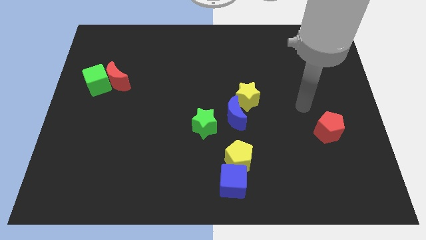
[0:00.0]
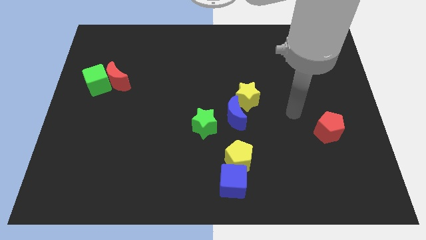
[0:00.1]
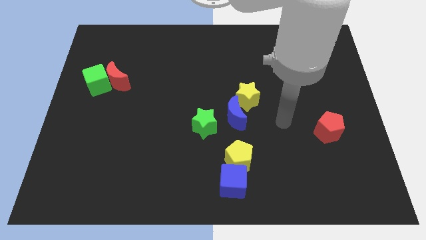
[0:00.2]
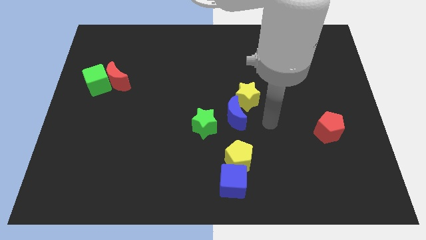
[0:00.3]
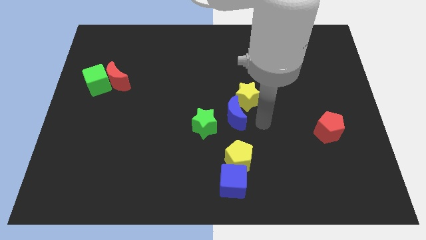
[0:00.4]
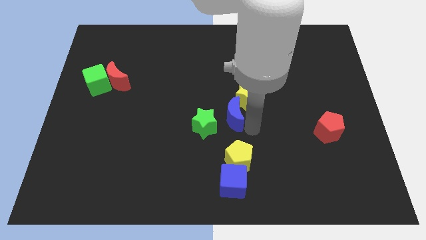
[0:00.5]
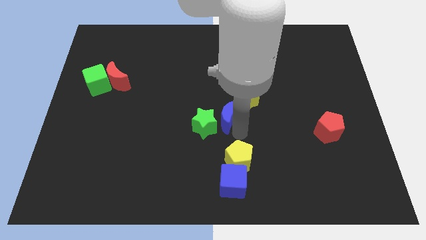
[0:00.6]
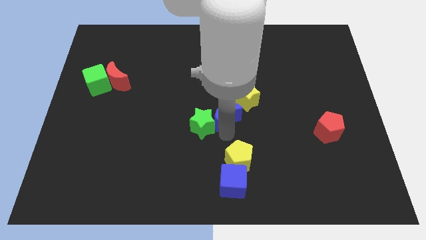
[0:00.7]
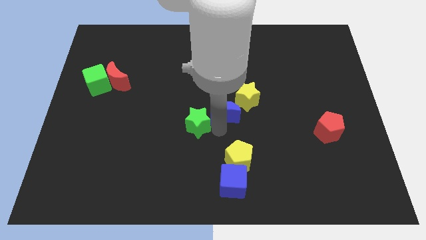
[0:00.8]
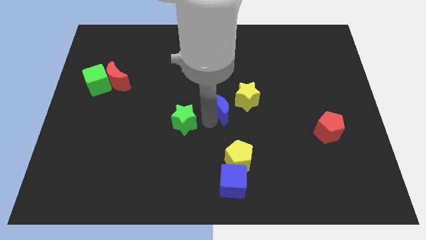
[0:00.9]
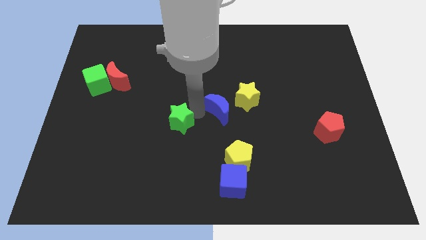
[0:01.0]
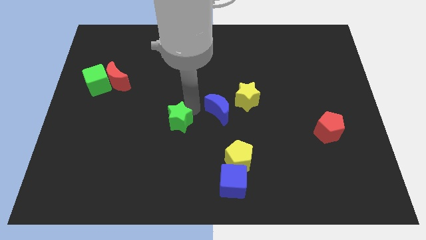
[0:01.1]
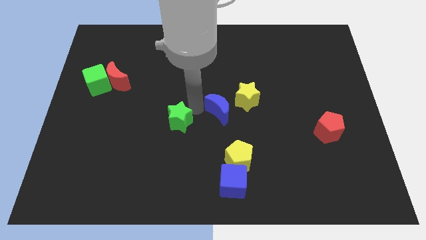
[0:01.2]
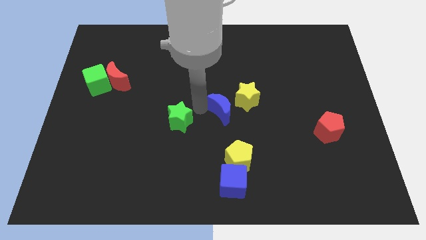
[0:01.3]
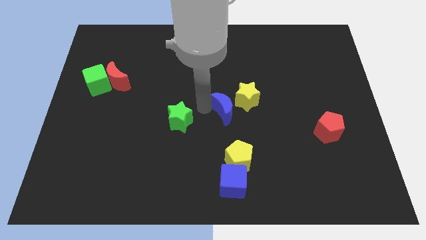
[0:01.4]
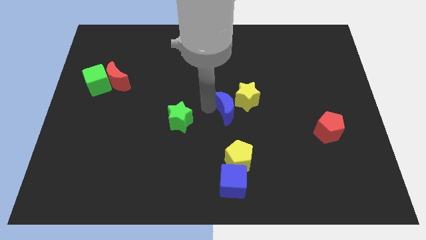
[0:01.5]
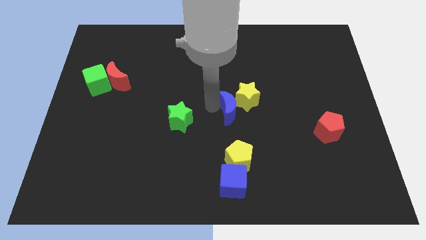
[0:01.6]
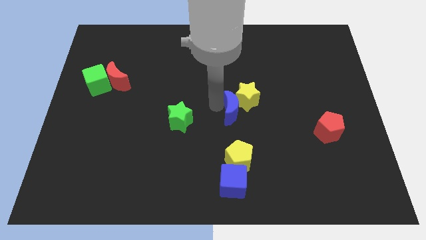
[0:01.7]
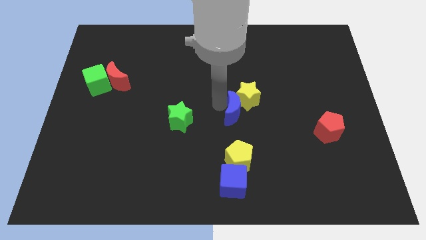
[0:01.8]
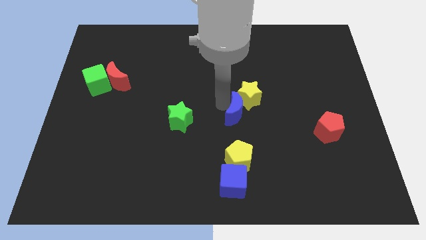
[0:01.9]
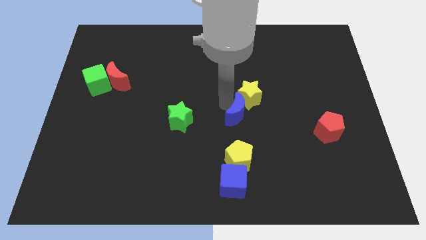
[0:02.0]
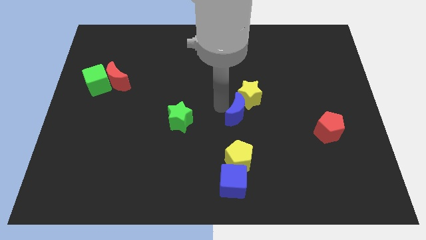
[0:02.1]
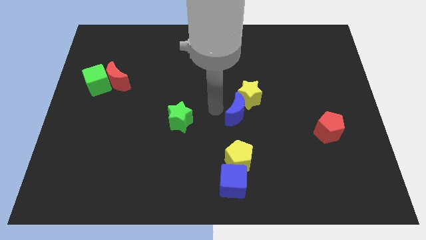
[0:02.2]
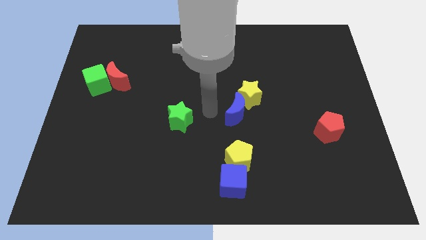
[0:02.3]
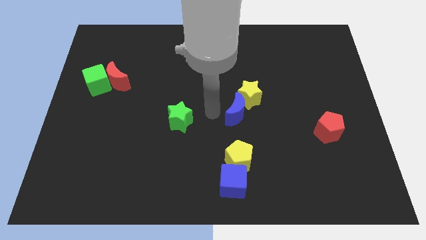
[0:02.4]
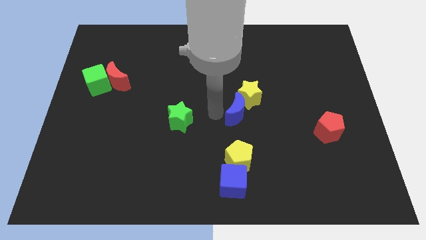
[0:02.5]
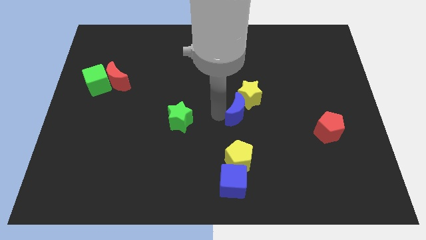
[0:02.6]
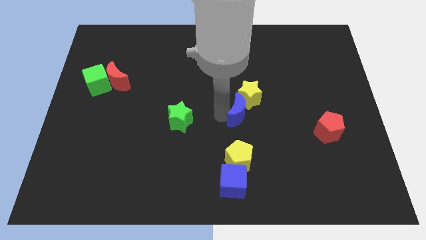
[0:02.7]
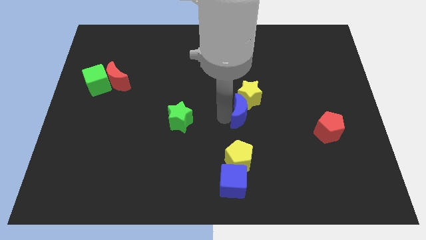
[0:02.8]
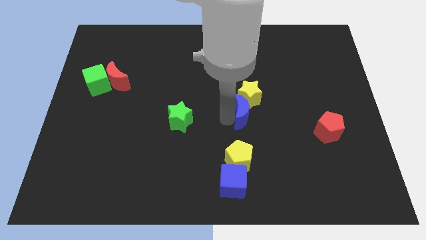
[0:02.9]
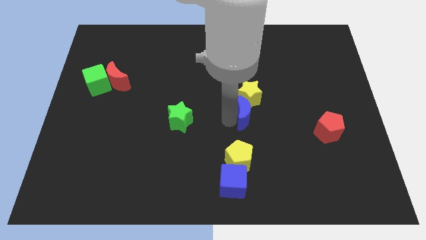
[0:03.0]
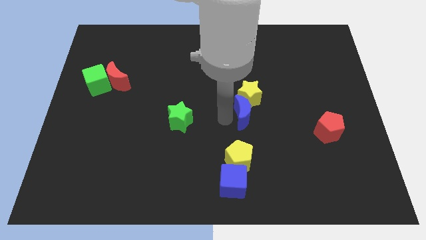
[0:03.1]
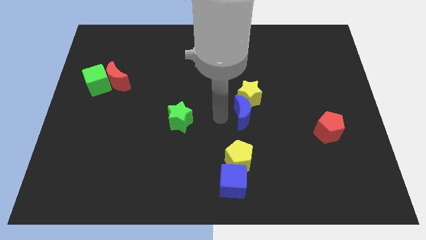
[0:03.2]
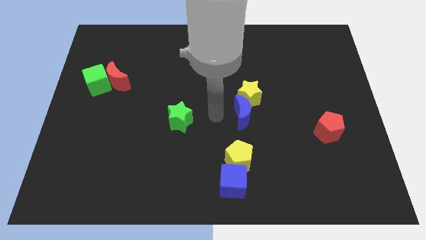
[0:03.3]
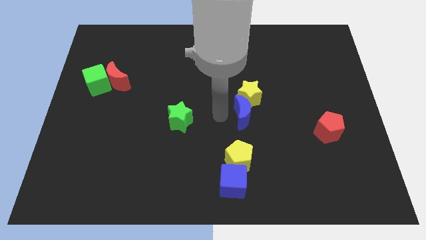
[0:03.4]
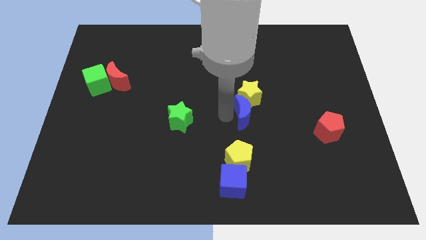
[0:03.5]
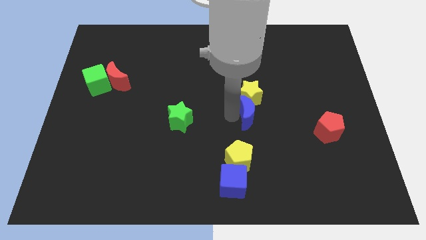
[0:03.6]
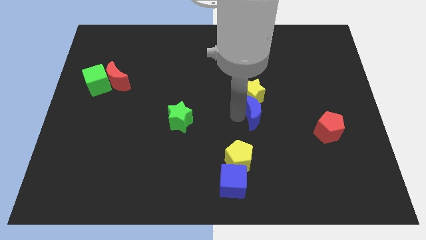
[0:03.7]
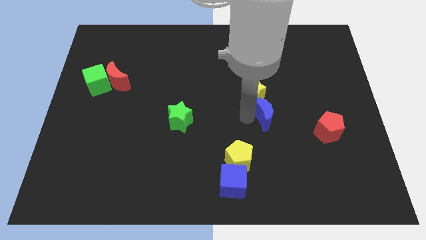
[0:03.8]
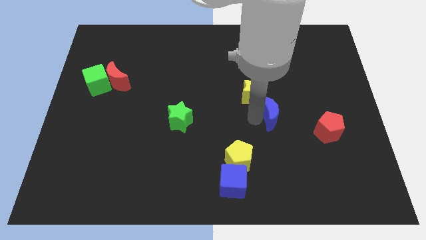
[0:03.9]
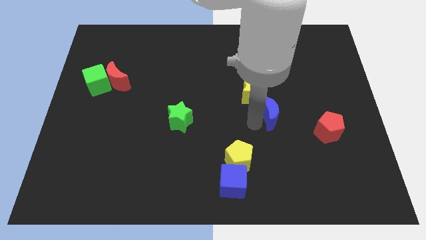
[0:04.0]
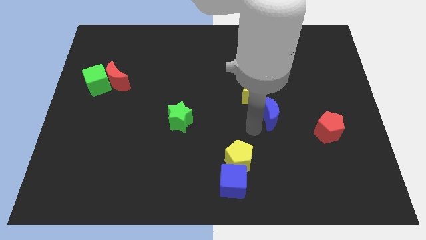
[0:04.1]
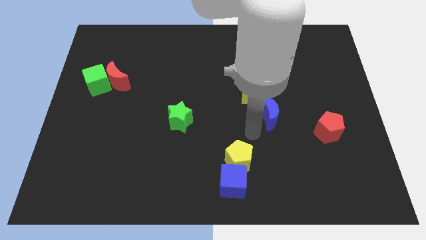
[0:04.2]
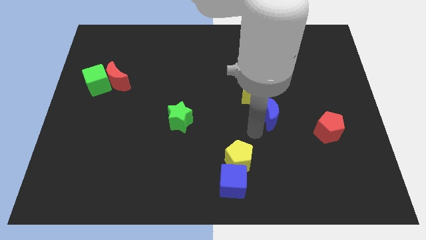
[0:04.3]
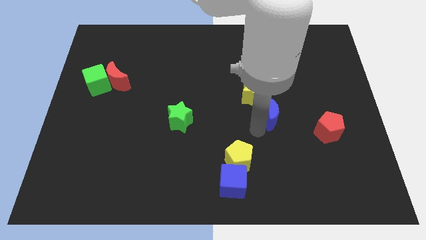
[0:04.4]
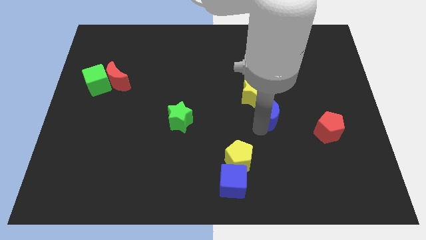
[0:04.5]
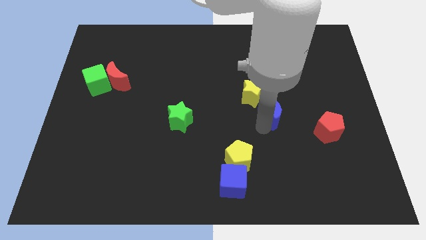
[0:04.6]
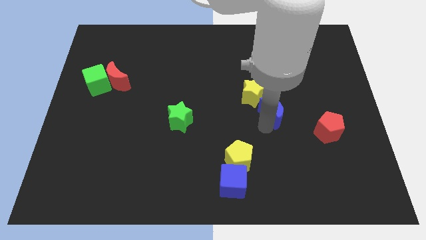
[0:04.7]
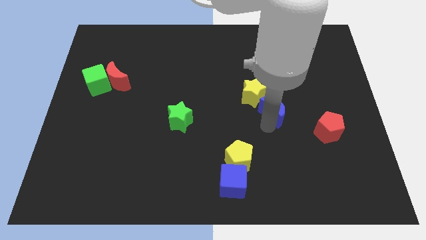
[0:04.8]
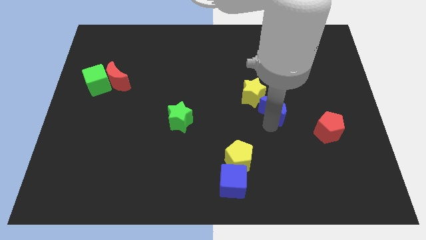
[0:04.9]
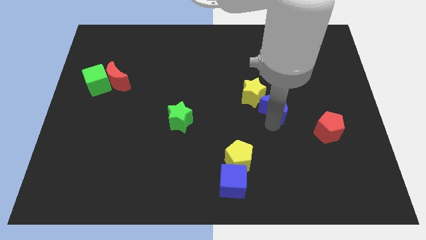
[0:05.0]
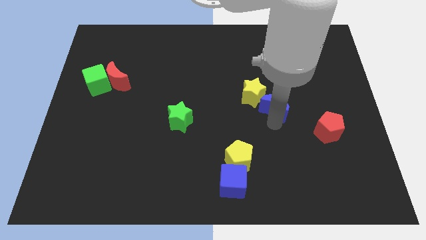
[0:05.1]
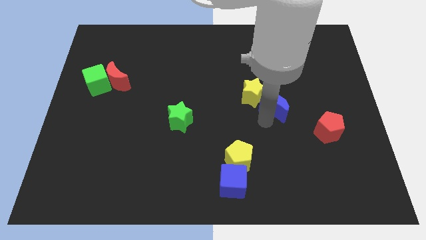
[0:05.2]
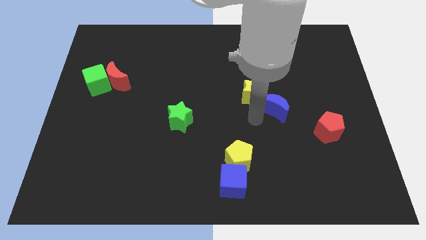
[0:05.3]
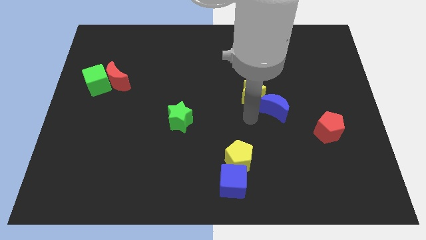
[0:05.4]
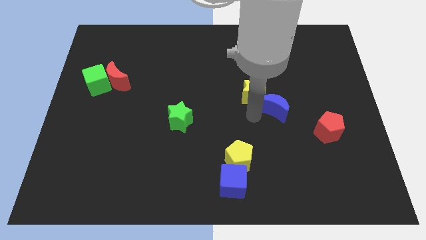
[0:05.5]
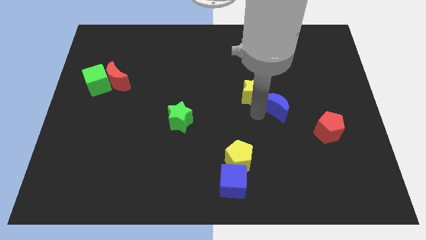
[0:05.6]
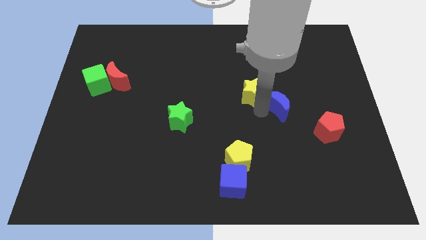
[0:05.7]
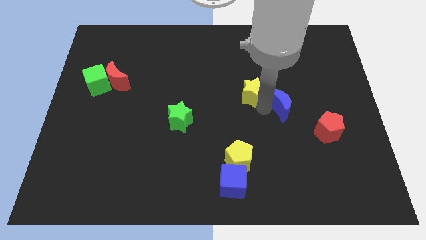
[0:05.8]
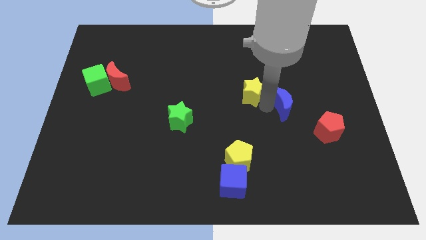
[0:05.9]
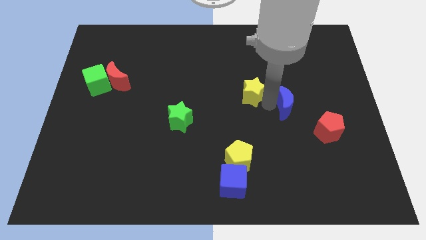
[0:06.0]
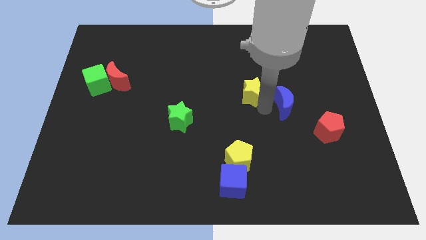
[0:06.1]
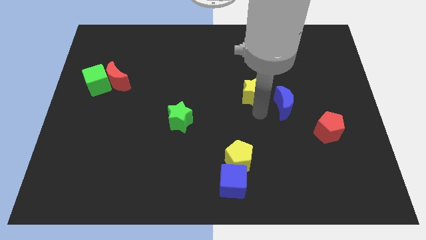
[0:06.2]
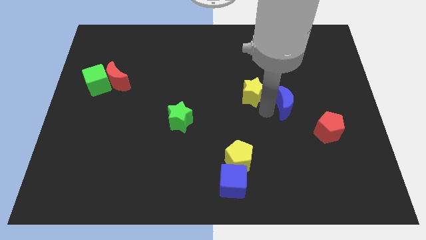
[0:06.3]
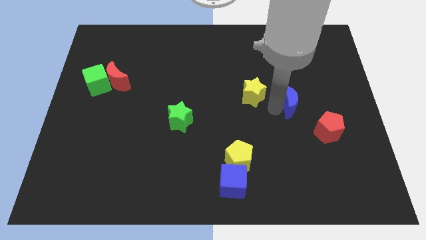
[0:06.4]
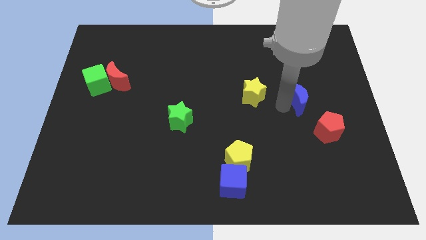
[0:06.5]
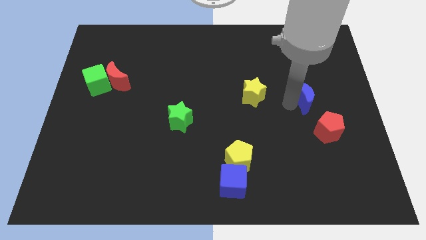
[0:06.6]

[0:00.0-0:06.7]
push the blue moon above the red pentagon

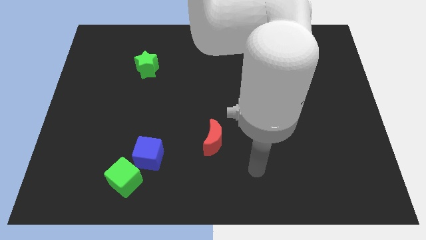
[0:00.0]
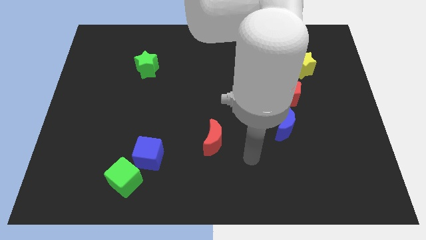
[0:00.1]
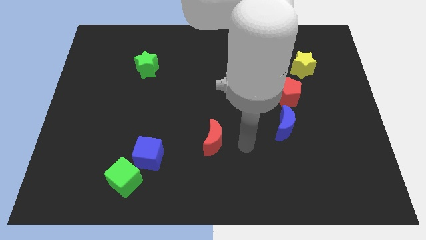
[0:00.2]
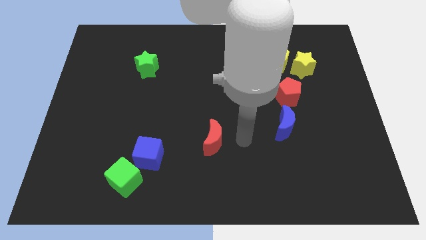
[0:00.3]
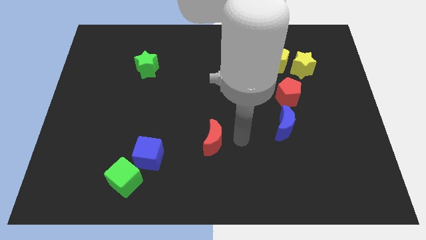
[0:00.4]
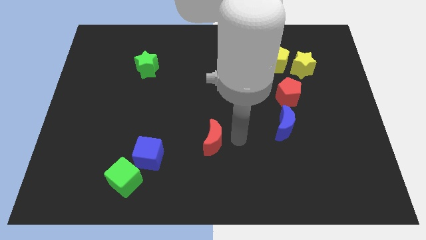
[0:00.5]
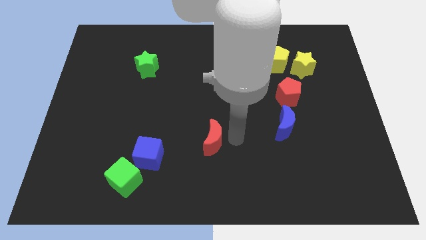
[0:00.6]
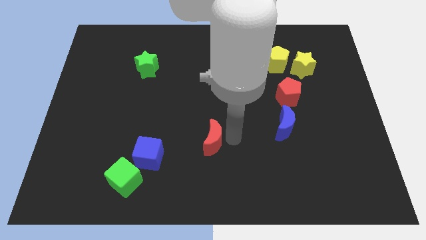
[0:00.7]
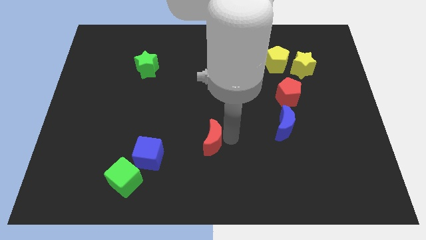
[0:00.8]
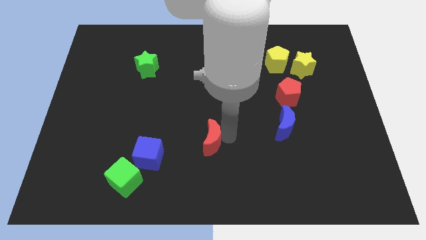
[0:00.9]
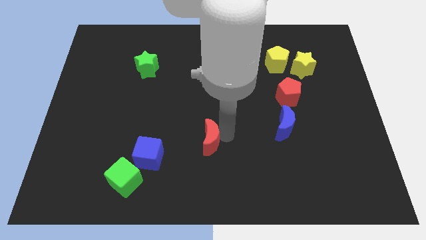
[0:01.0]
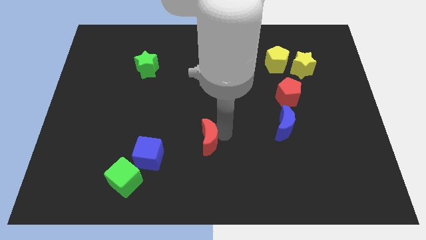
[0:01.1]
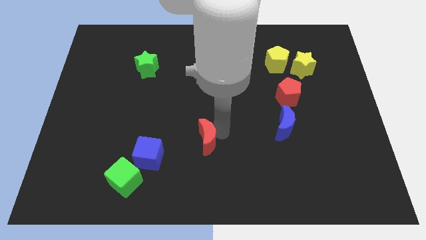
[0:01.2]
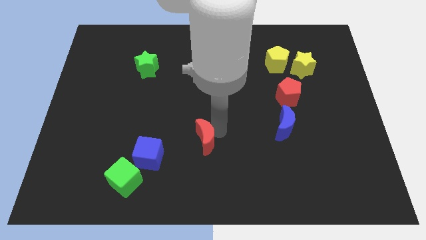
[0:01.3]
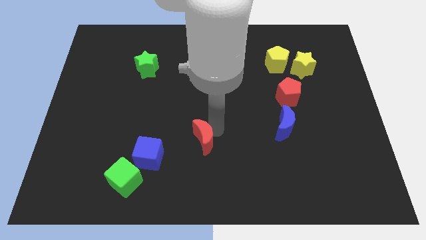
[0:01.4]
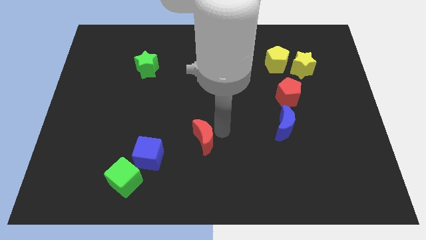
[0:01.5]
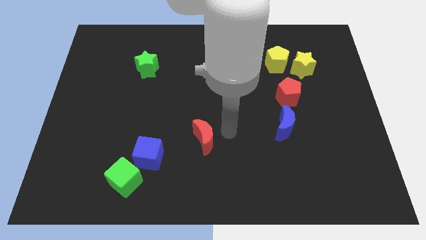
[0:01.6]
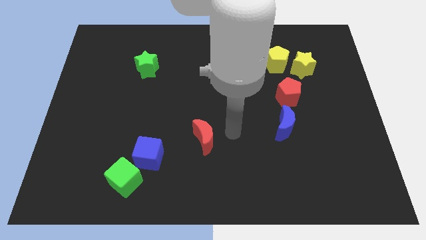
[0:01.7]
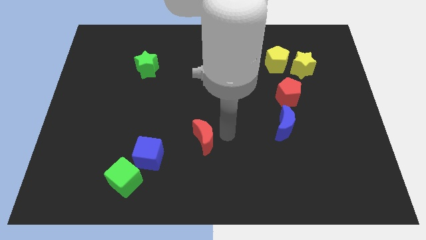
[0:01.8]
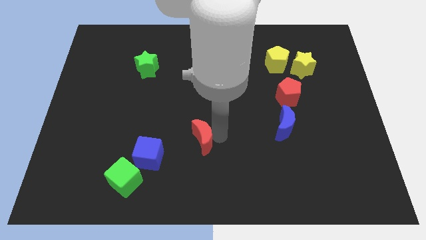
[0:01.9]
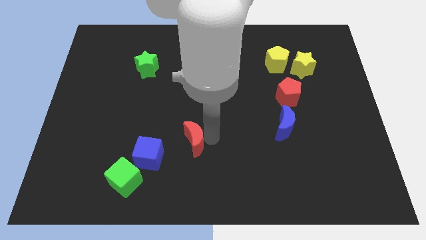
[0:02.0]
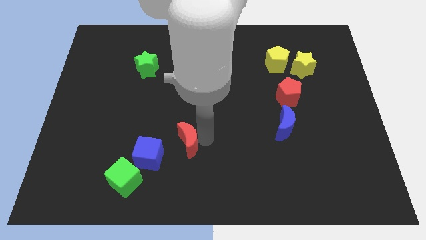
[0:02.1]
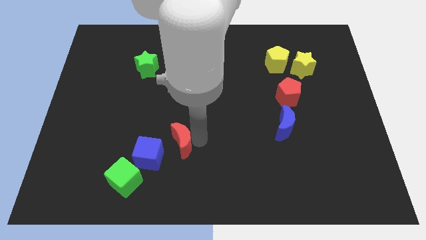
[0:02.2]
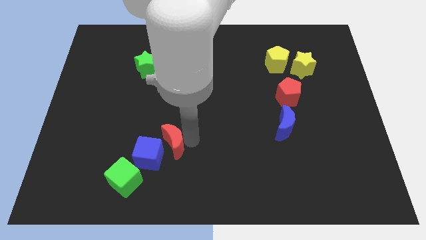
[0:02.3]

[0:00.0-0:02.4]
slide the red moon to the top right of the green cube
